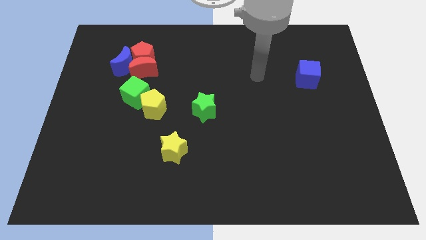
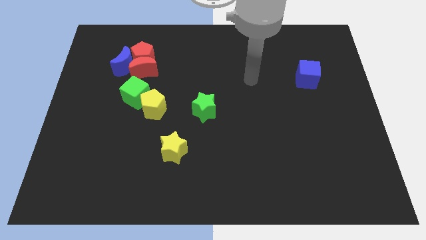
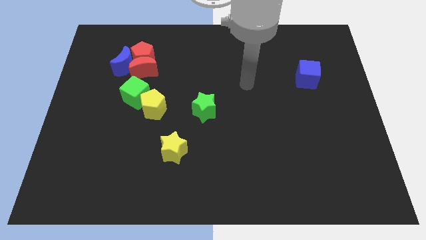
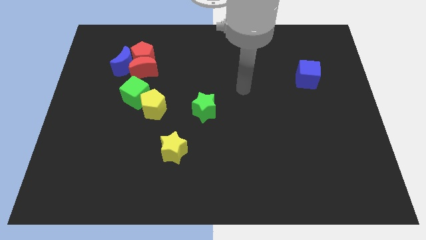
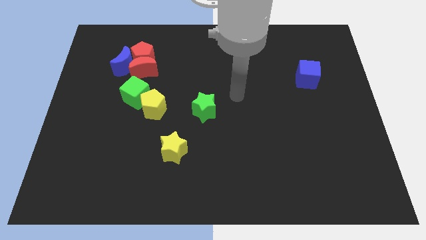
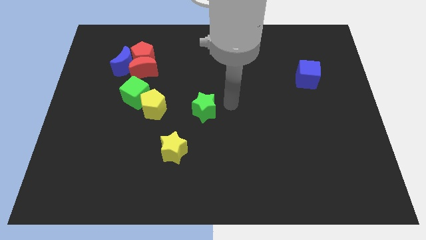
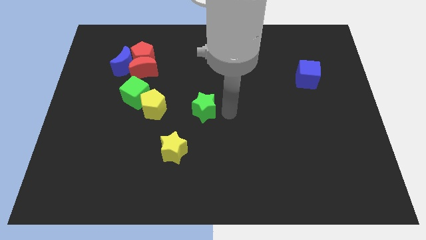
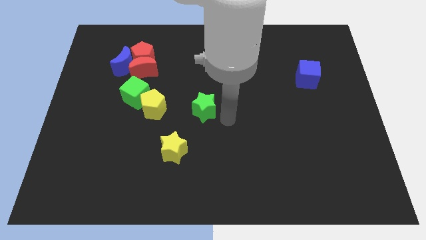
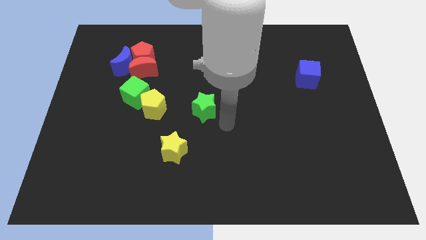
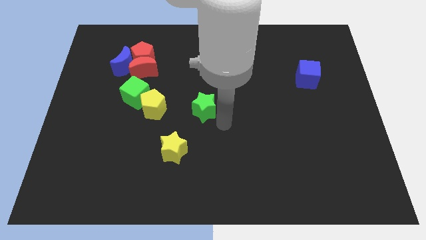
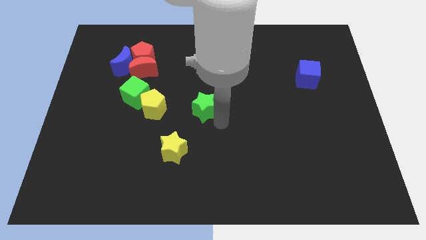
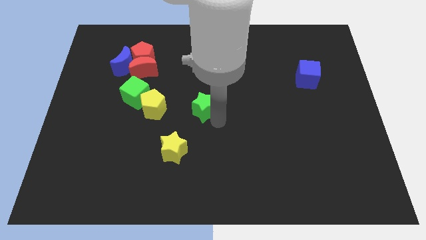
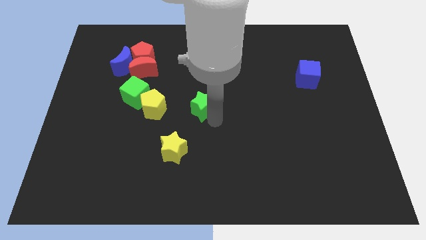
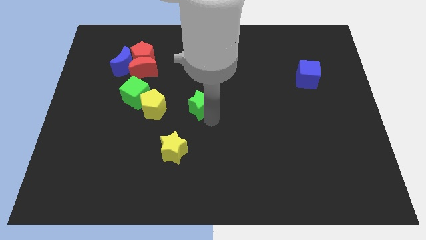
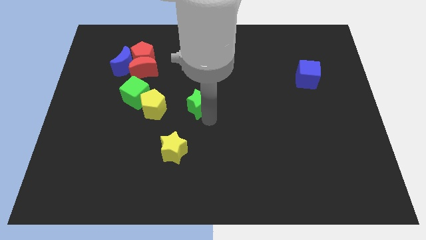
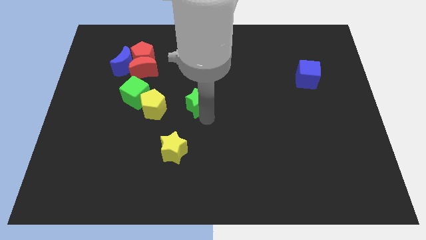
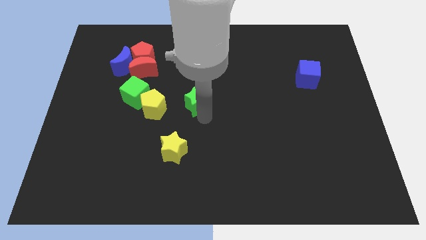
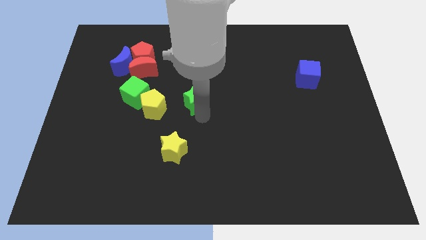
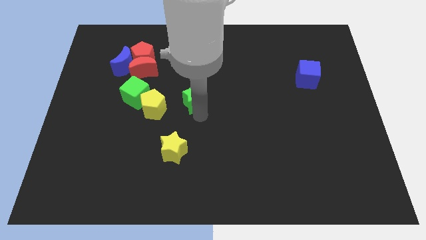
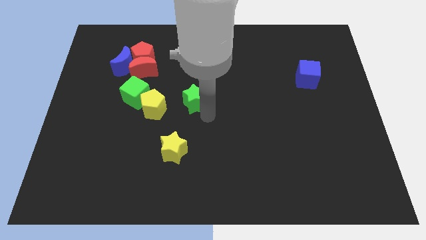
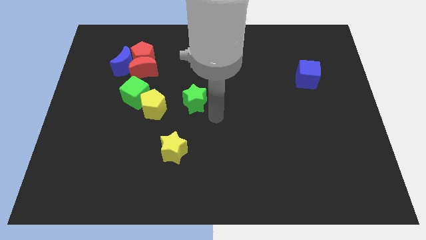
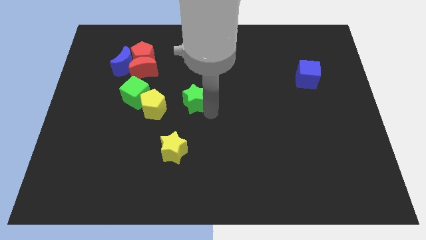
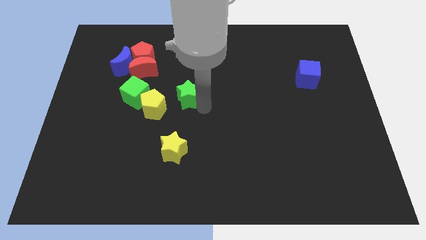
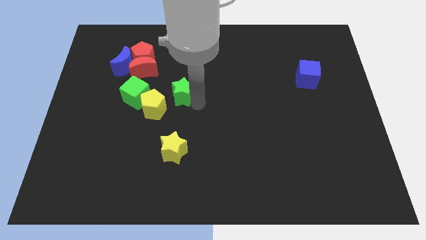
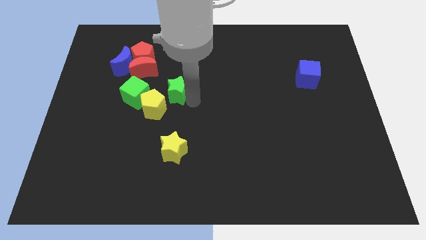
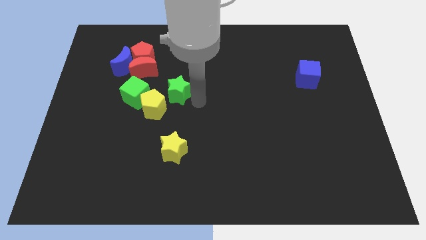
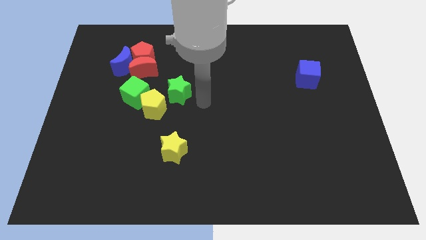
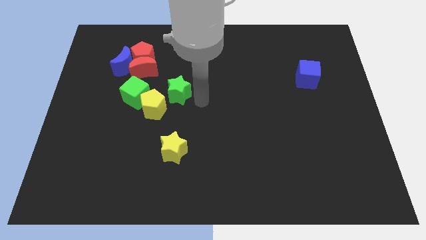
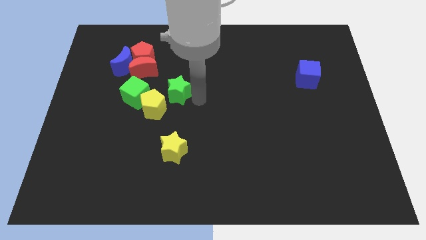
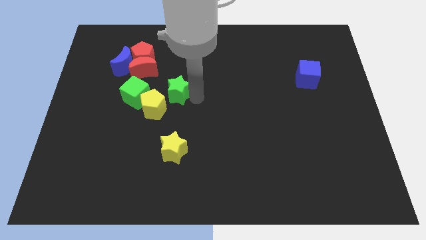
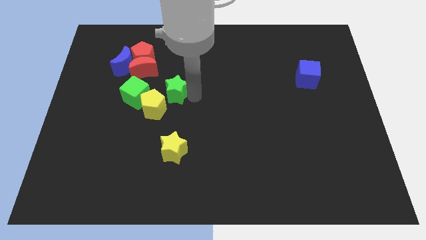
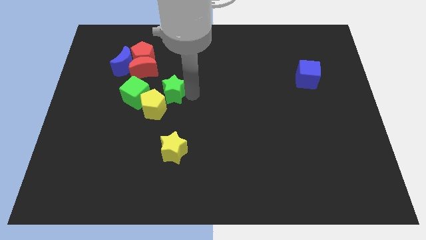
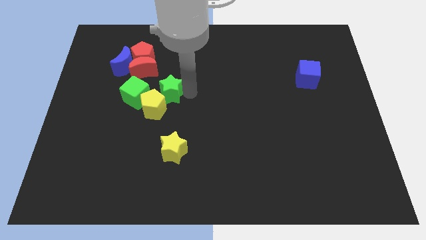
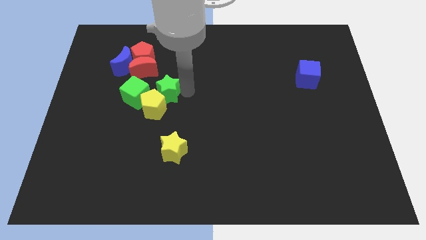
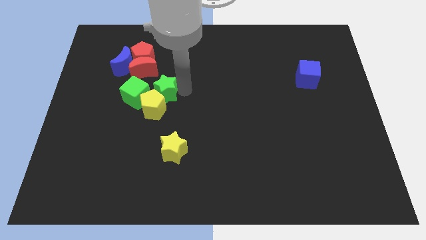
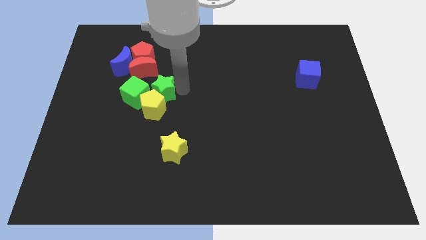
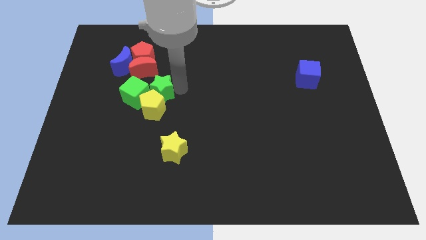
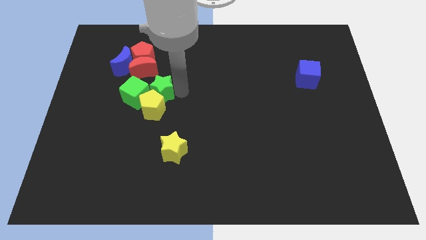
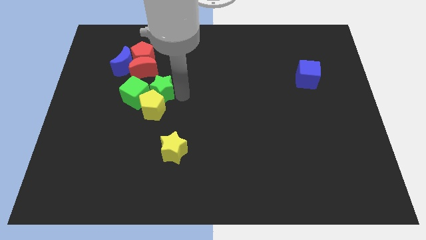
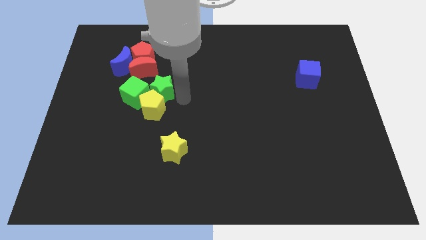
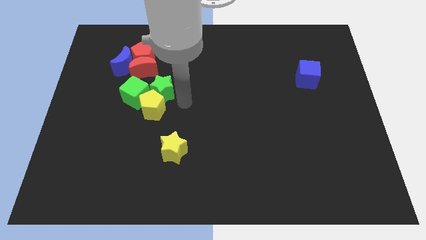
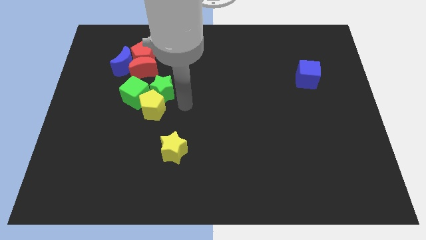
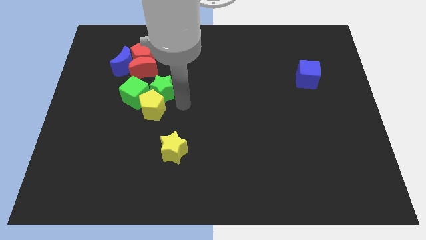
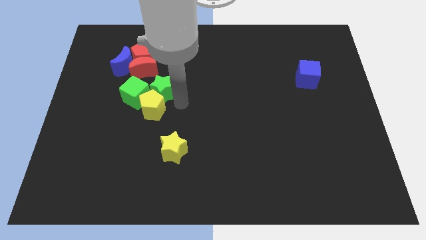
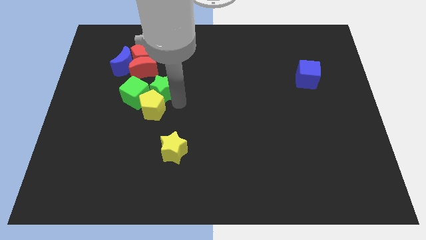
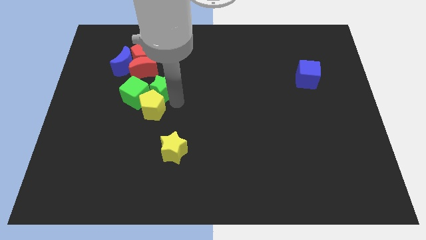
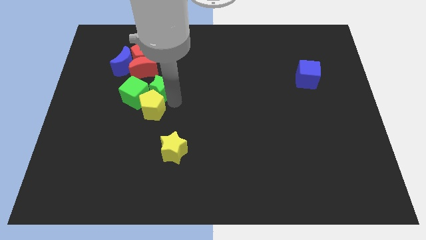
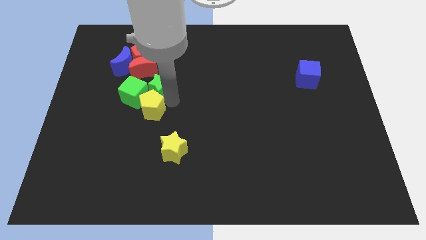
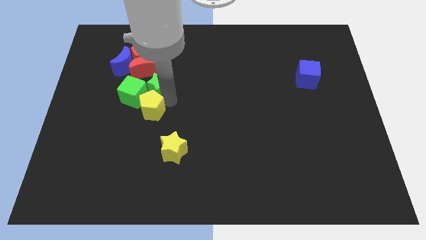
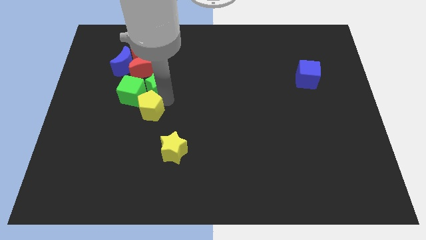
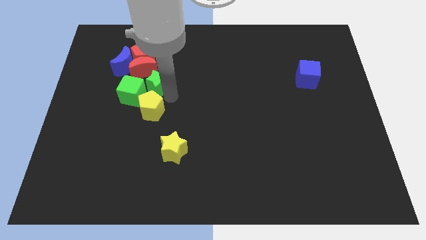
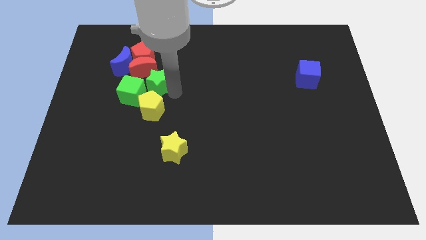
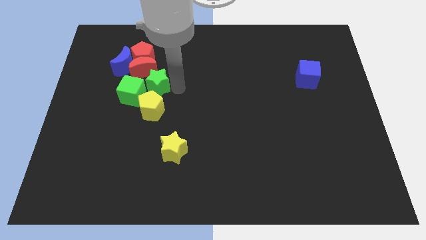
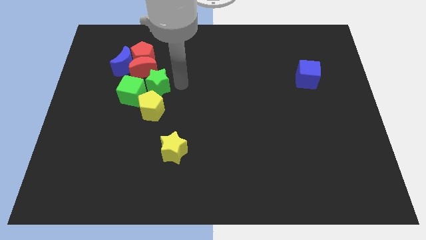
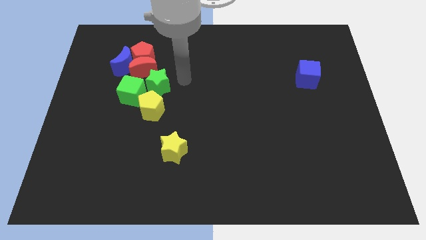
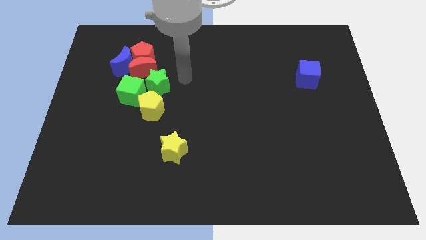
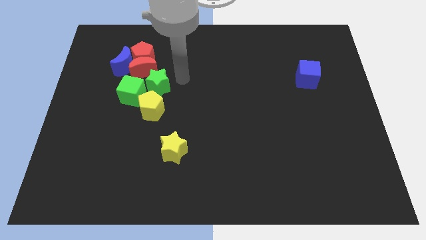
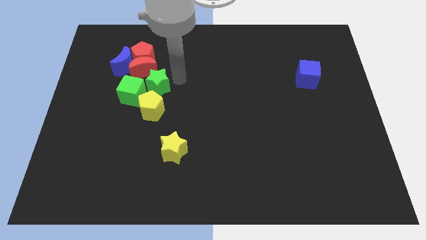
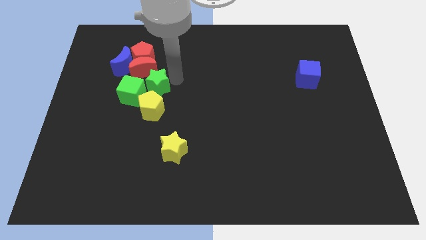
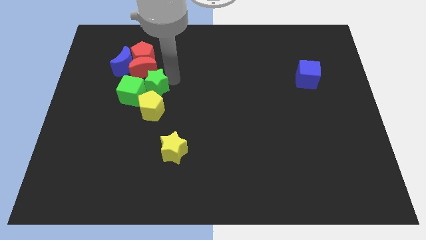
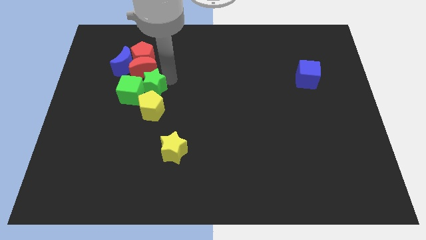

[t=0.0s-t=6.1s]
slide the green star close to the green cube

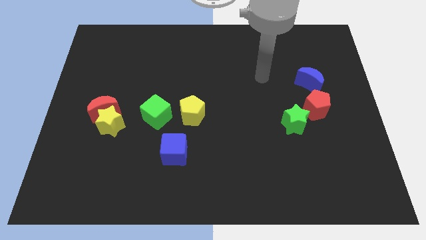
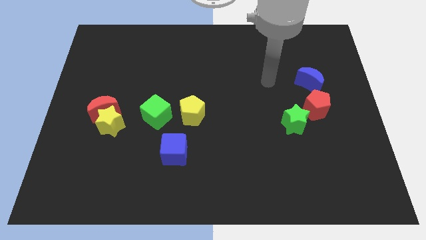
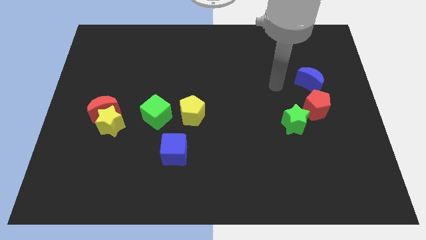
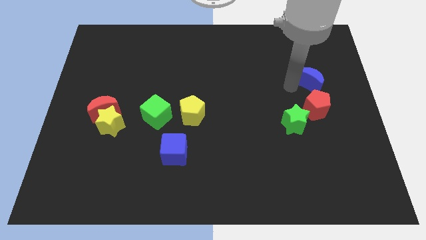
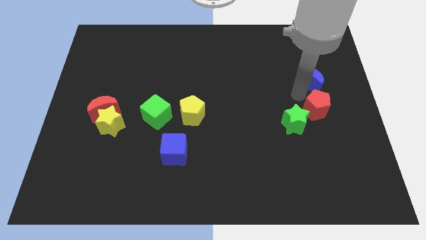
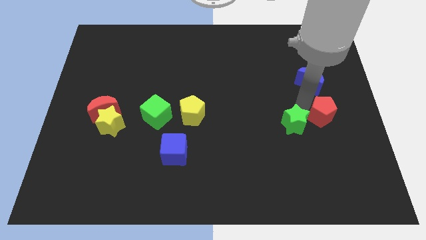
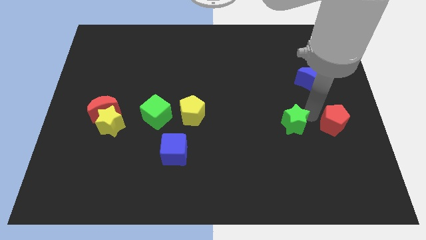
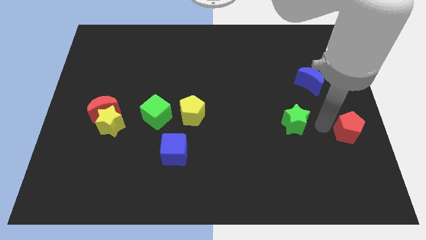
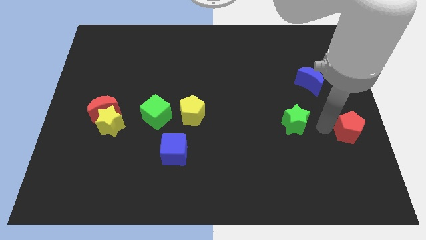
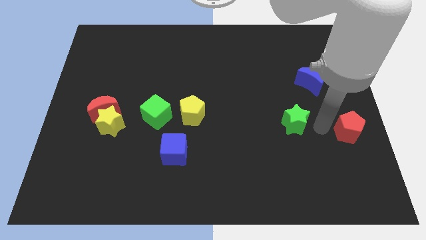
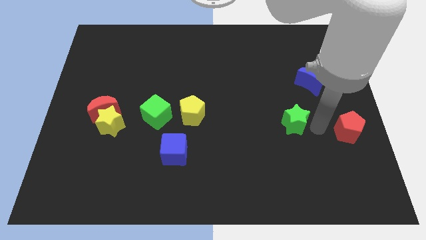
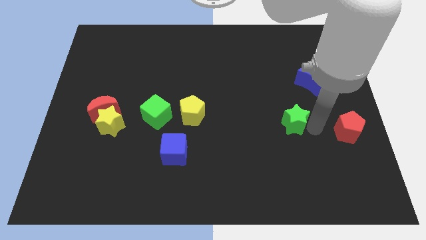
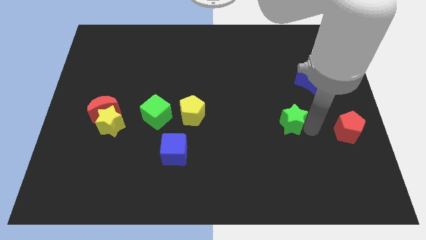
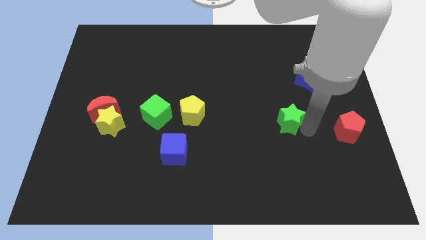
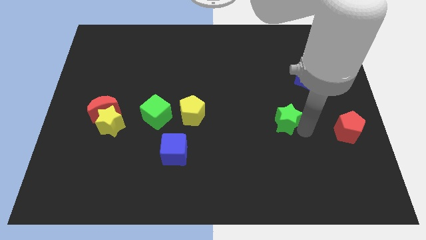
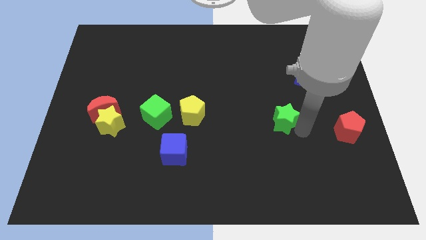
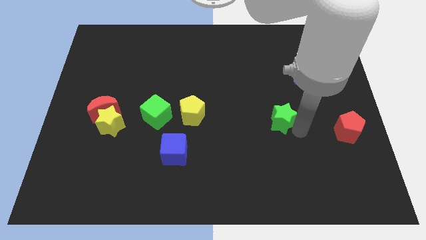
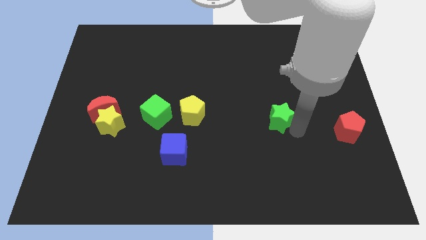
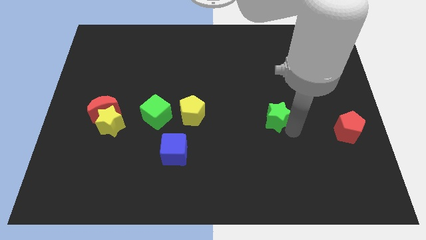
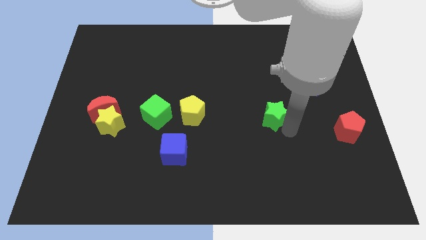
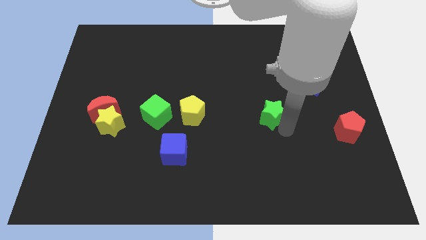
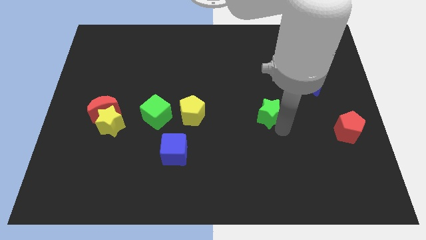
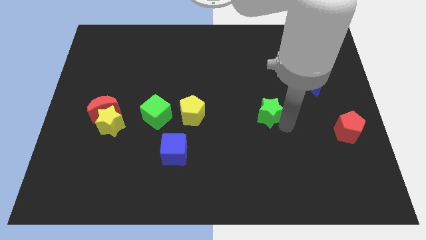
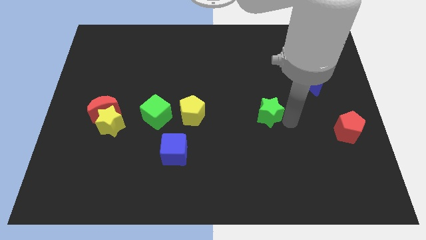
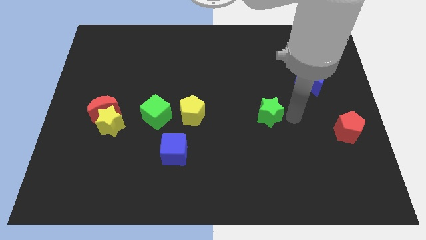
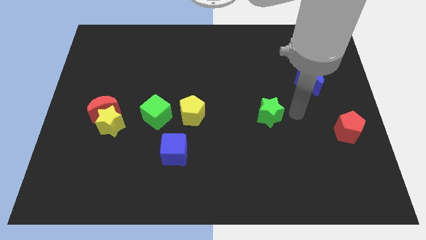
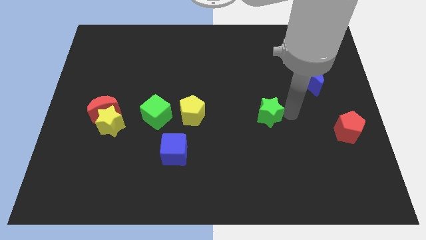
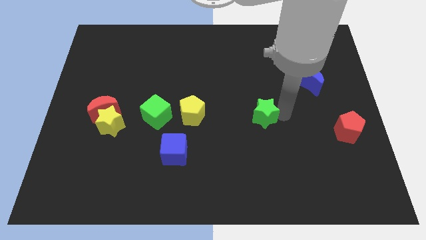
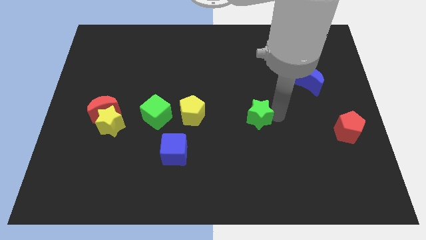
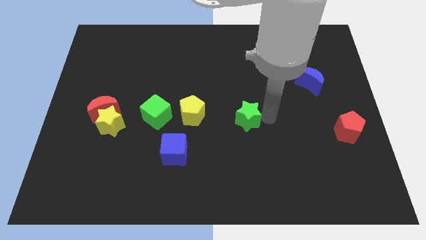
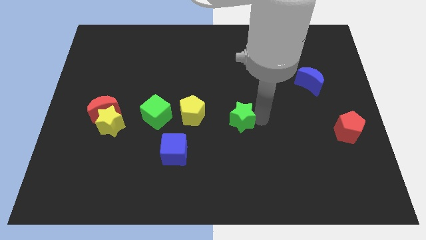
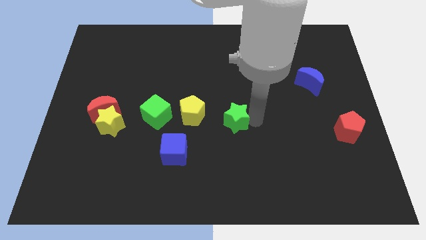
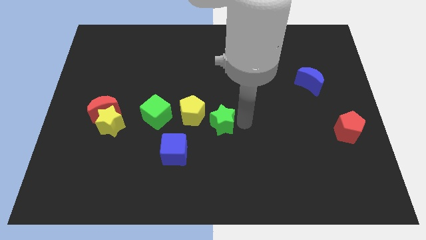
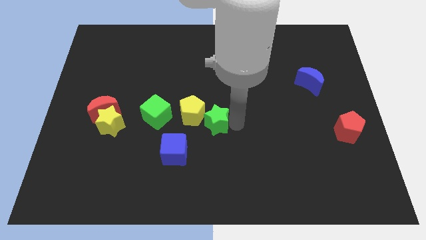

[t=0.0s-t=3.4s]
move the green star to the yellow pentagon
